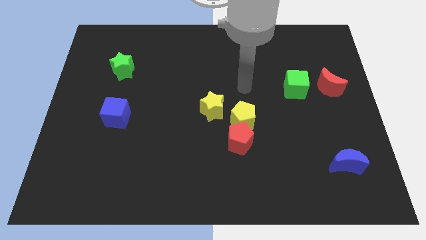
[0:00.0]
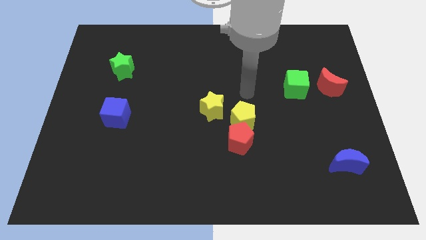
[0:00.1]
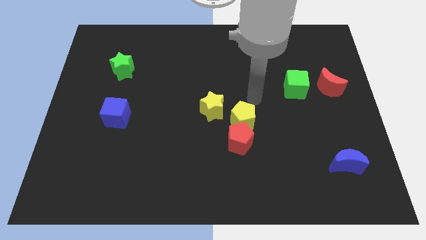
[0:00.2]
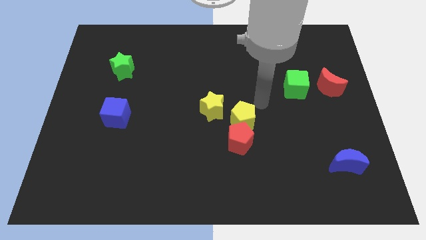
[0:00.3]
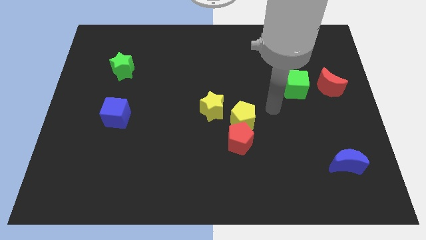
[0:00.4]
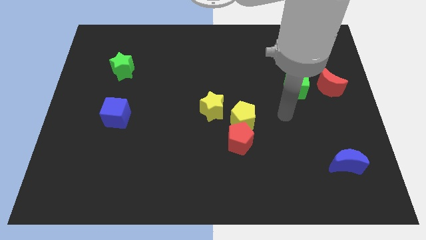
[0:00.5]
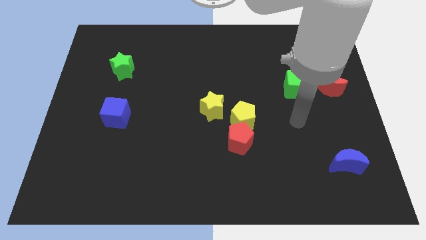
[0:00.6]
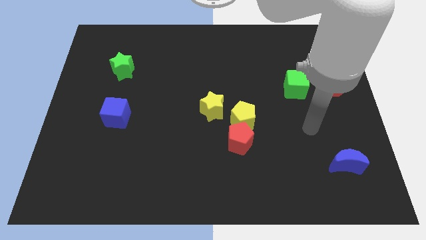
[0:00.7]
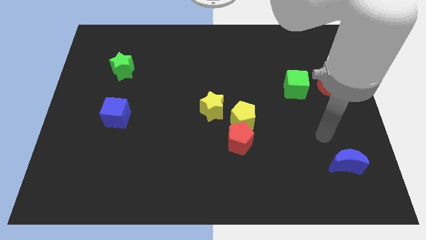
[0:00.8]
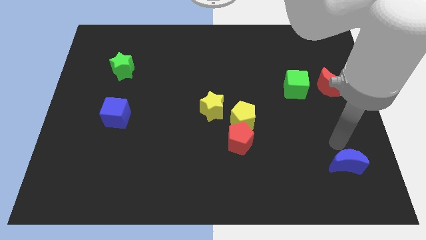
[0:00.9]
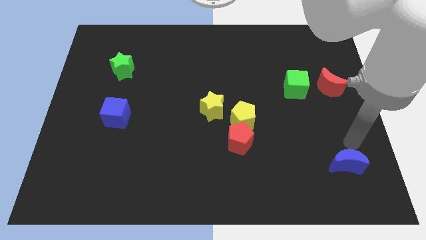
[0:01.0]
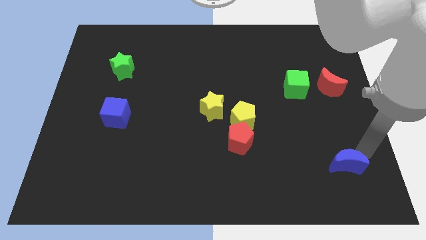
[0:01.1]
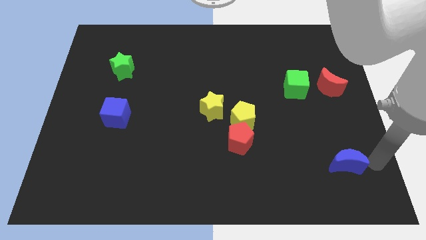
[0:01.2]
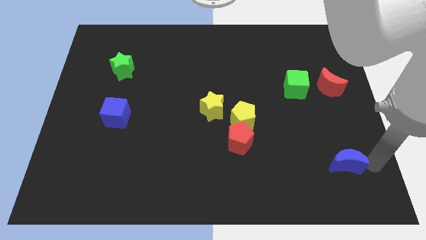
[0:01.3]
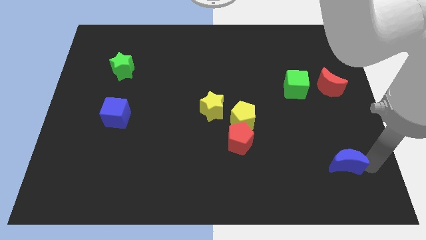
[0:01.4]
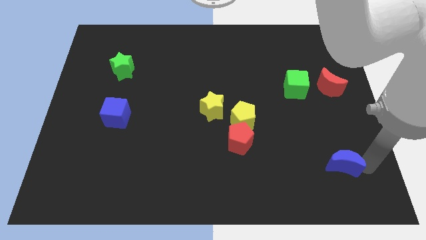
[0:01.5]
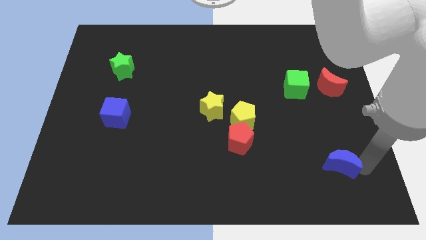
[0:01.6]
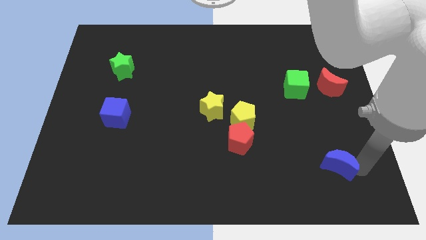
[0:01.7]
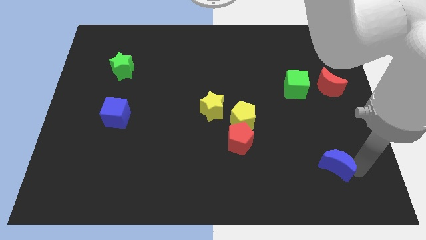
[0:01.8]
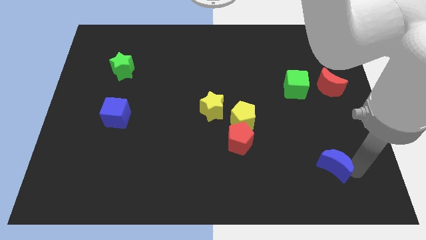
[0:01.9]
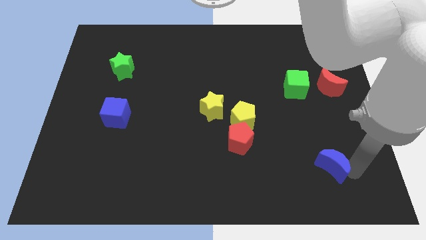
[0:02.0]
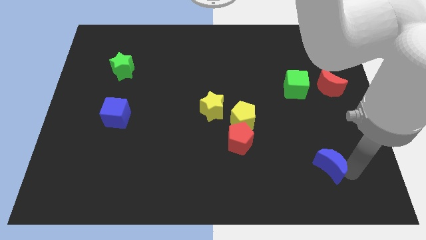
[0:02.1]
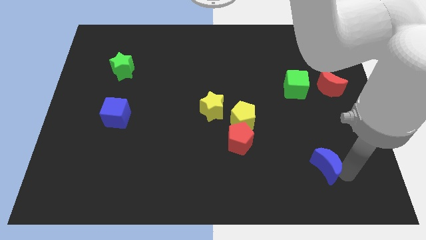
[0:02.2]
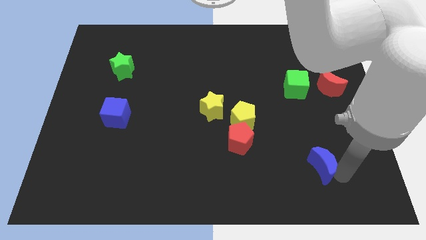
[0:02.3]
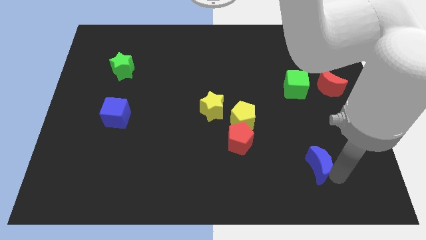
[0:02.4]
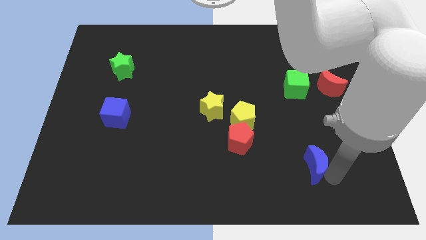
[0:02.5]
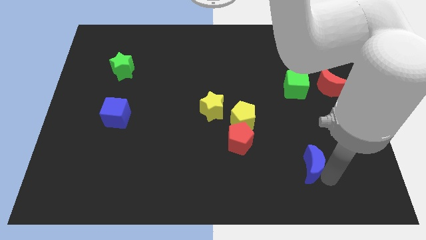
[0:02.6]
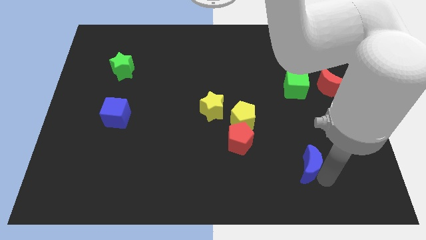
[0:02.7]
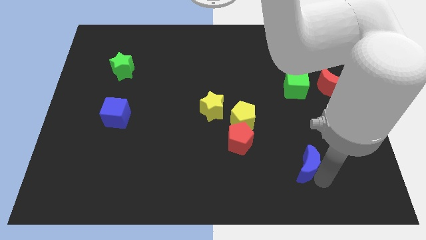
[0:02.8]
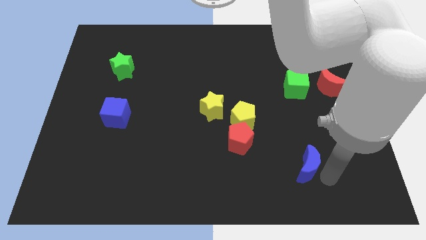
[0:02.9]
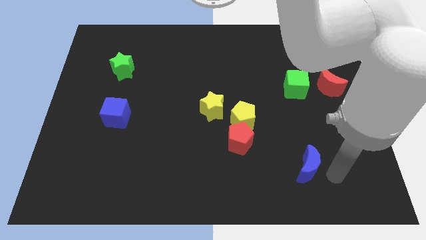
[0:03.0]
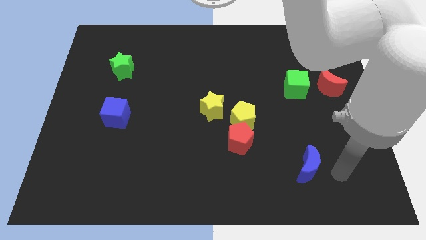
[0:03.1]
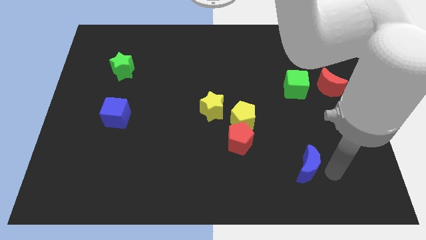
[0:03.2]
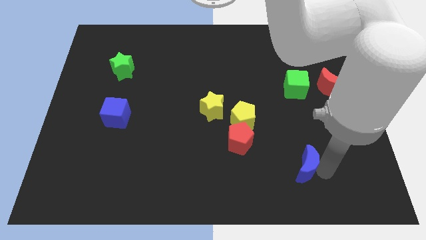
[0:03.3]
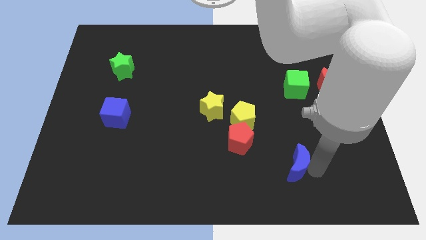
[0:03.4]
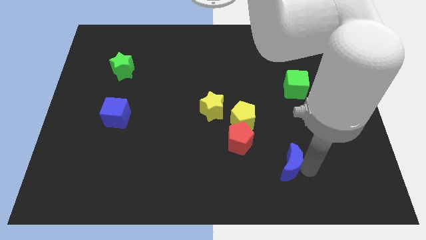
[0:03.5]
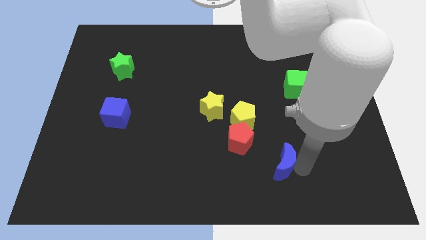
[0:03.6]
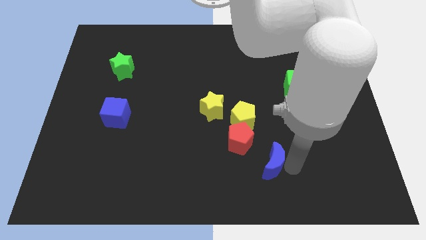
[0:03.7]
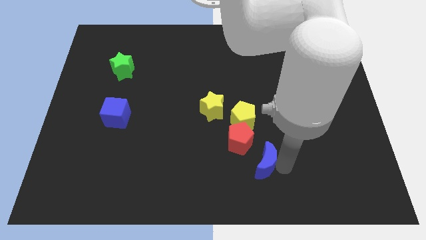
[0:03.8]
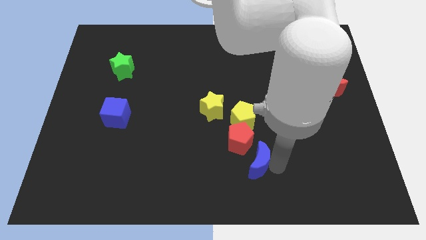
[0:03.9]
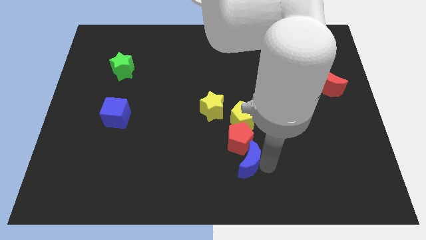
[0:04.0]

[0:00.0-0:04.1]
push the blue moon left

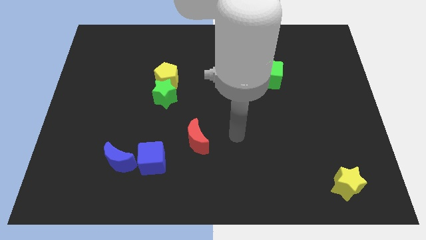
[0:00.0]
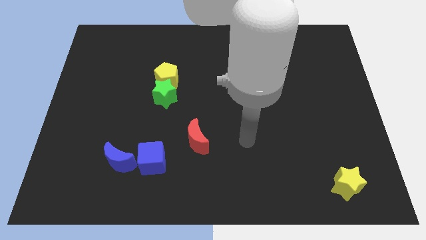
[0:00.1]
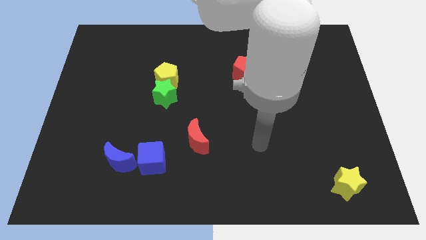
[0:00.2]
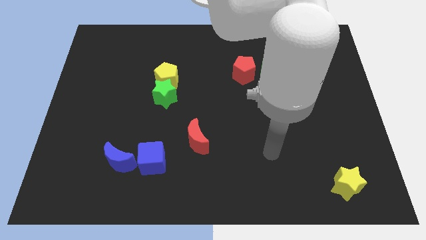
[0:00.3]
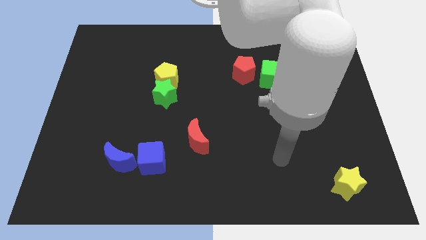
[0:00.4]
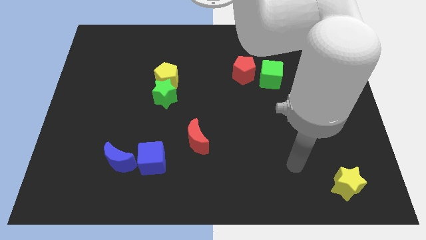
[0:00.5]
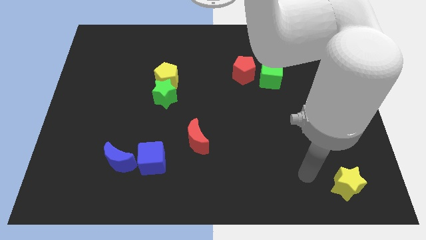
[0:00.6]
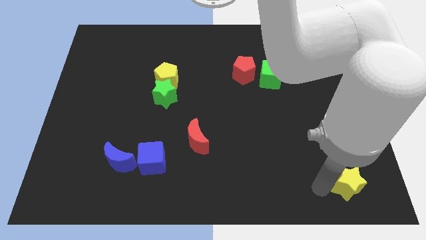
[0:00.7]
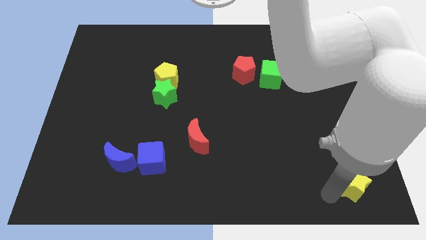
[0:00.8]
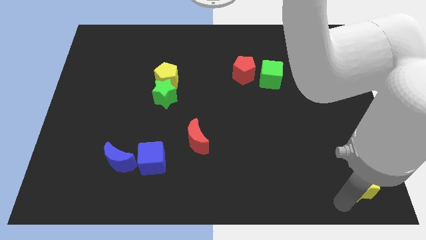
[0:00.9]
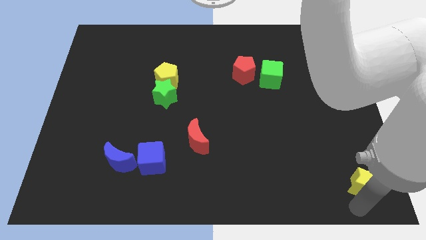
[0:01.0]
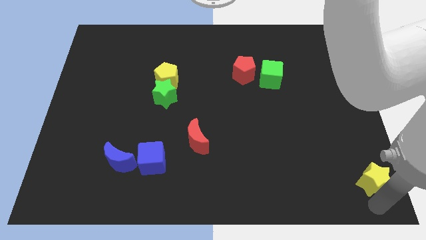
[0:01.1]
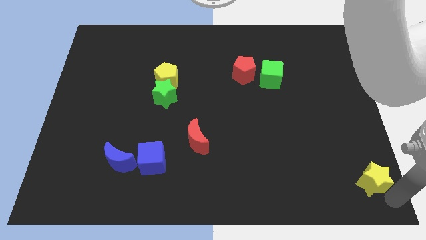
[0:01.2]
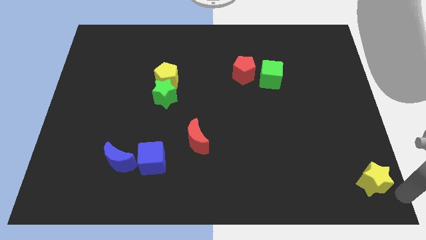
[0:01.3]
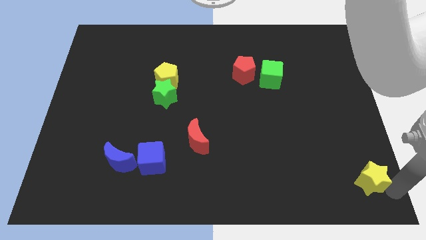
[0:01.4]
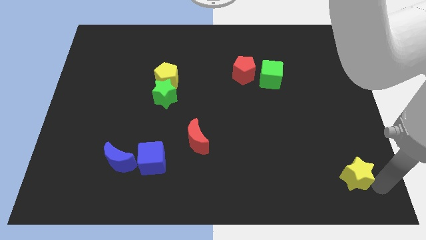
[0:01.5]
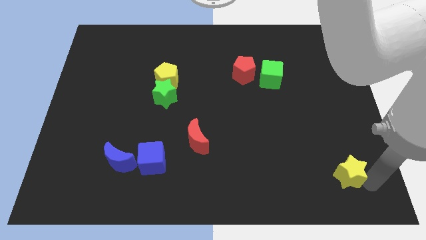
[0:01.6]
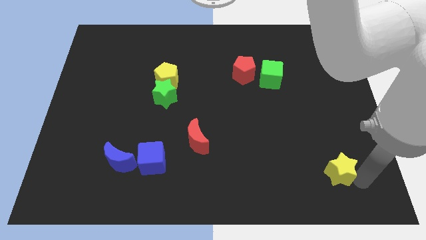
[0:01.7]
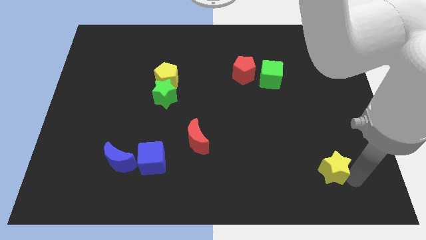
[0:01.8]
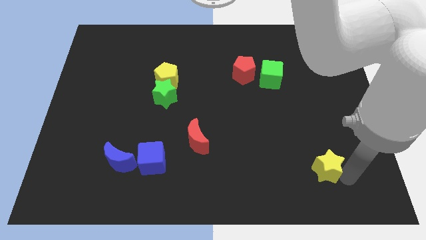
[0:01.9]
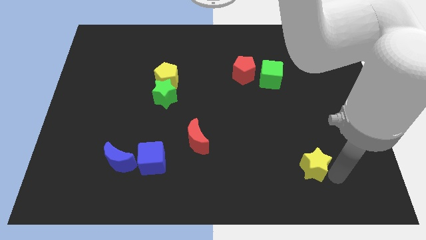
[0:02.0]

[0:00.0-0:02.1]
move the yellow star slightly diagonally upwards and left

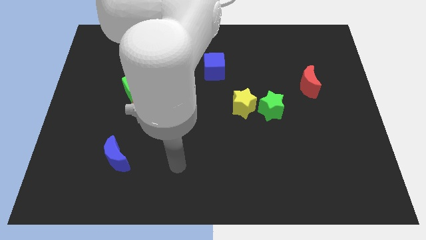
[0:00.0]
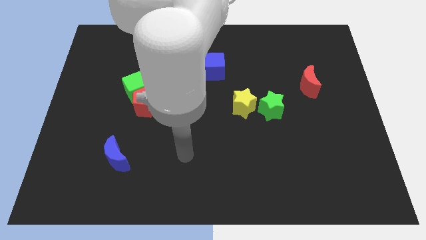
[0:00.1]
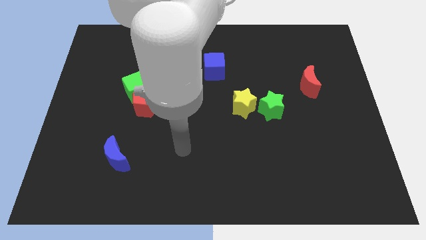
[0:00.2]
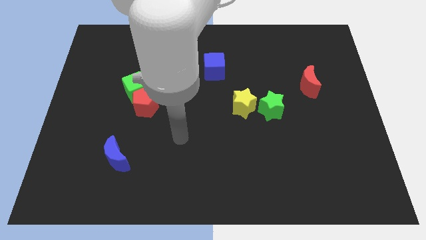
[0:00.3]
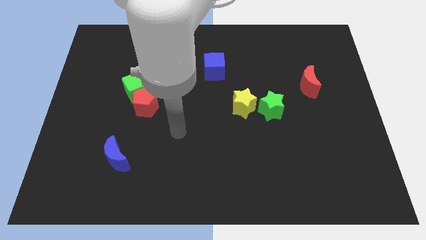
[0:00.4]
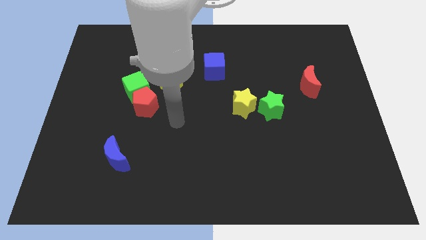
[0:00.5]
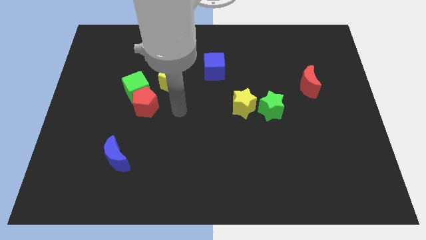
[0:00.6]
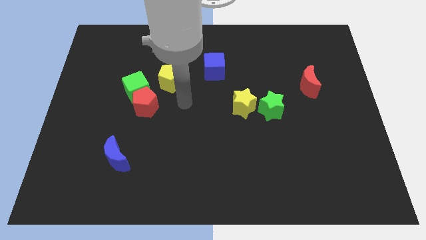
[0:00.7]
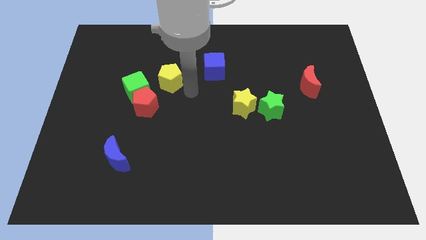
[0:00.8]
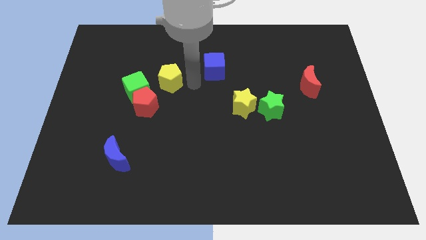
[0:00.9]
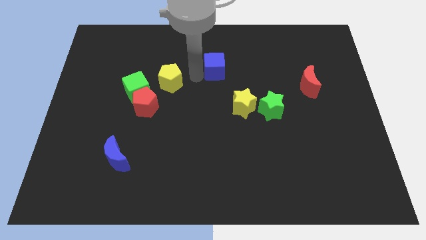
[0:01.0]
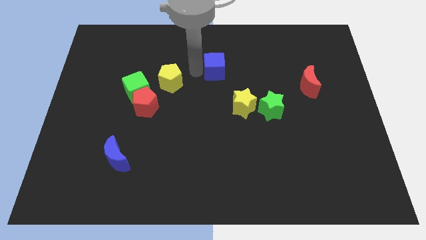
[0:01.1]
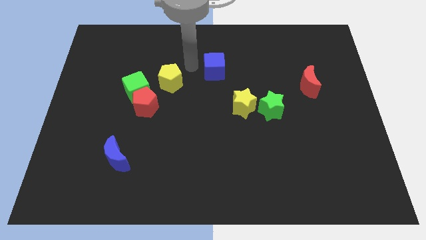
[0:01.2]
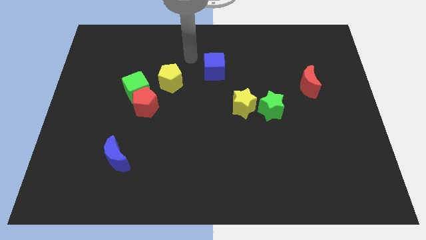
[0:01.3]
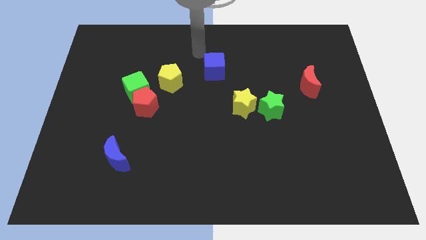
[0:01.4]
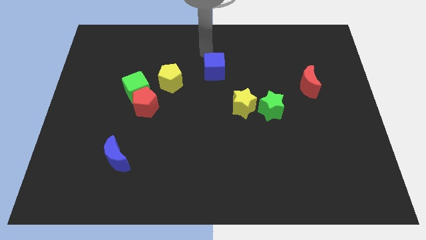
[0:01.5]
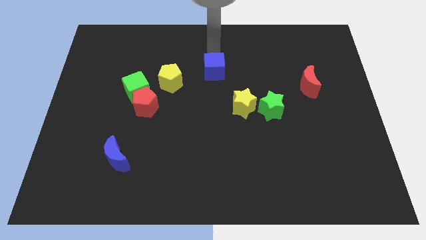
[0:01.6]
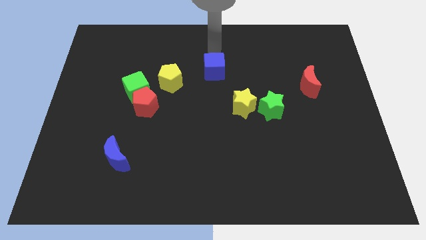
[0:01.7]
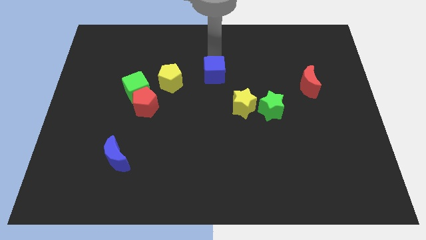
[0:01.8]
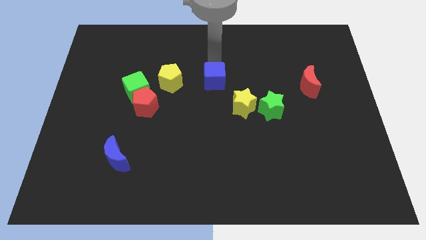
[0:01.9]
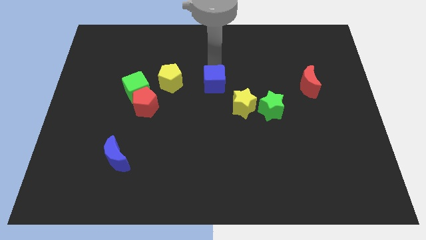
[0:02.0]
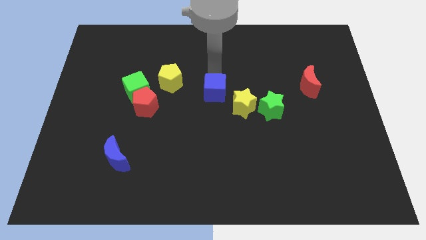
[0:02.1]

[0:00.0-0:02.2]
slide the blue cube a little down
